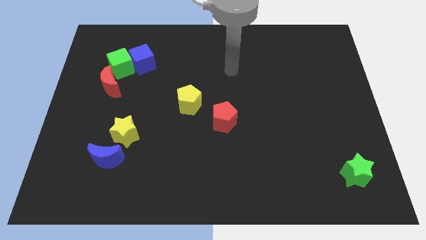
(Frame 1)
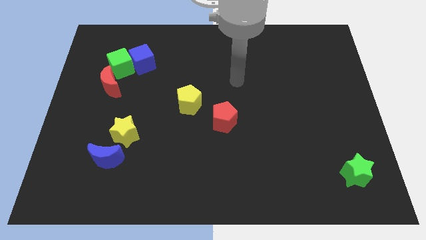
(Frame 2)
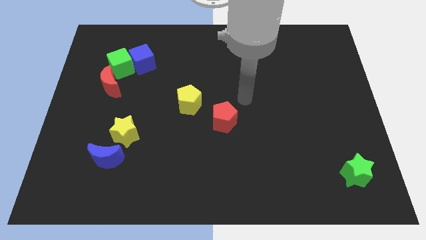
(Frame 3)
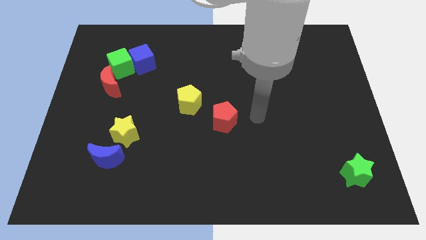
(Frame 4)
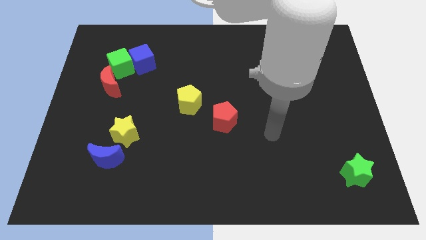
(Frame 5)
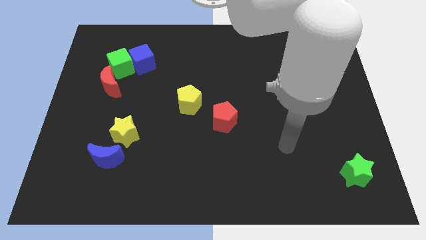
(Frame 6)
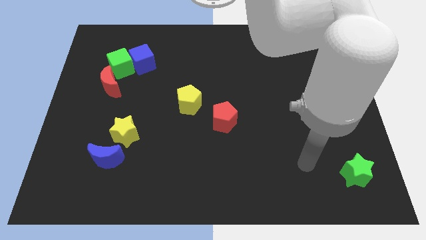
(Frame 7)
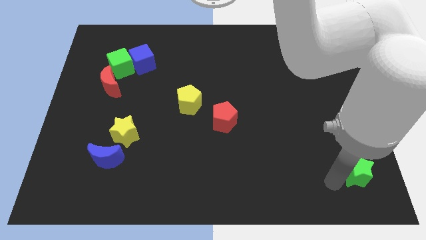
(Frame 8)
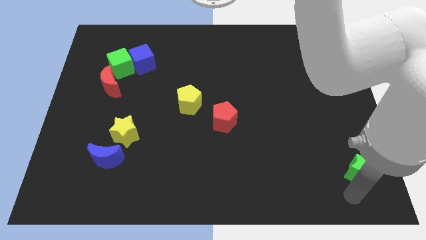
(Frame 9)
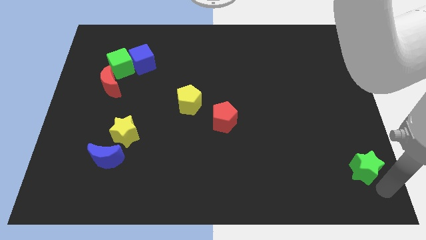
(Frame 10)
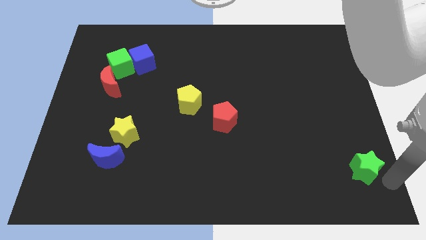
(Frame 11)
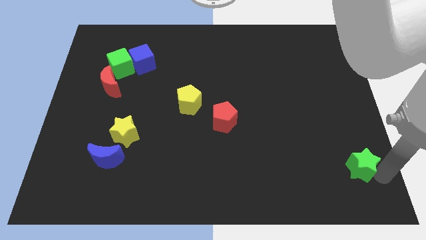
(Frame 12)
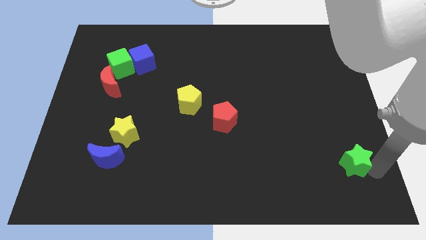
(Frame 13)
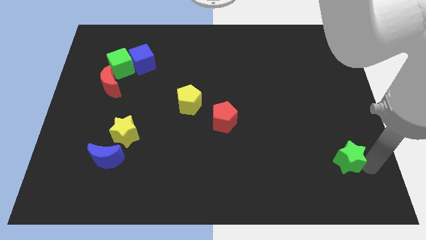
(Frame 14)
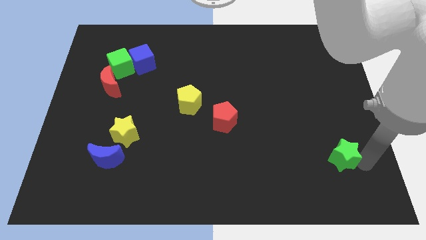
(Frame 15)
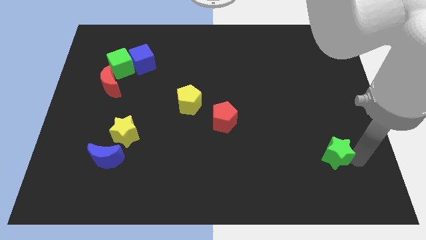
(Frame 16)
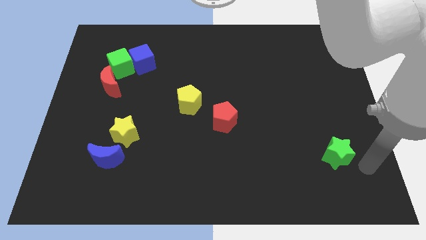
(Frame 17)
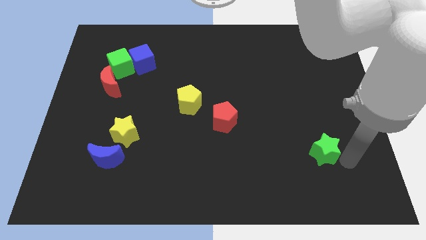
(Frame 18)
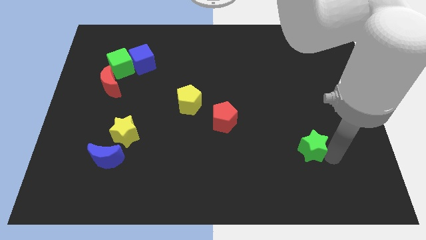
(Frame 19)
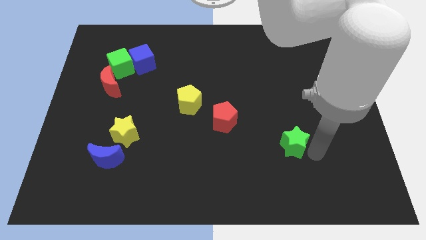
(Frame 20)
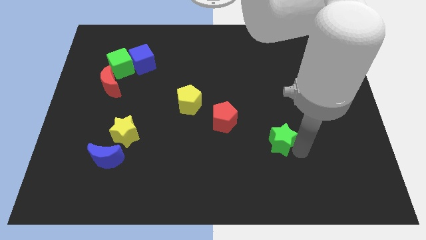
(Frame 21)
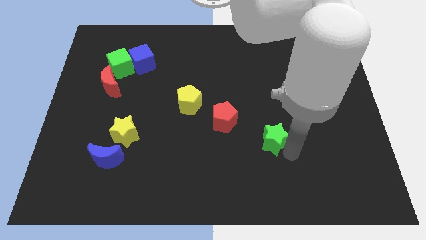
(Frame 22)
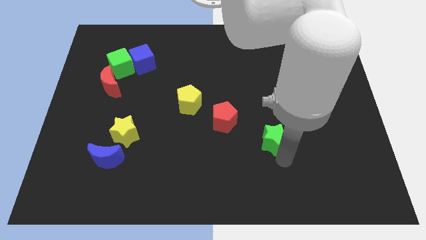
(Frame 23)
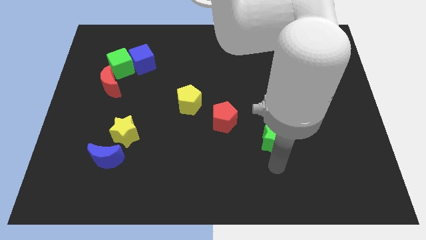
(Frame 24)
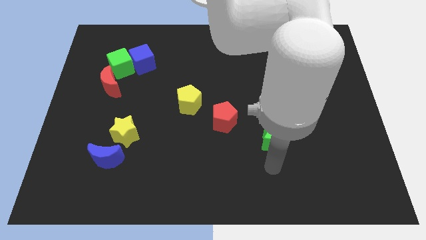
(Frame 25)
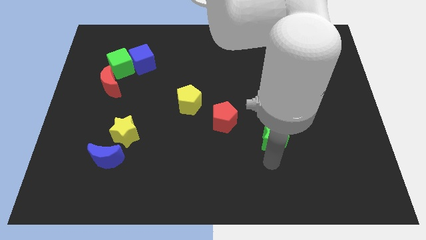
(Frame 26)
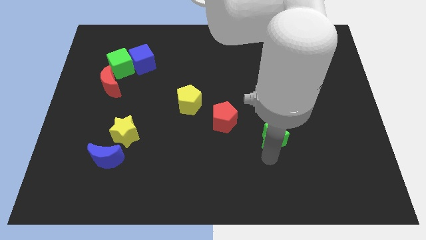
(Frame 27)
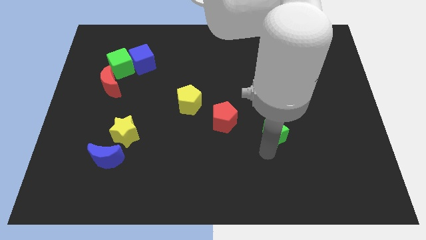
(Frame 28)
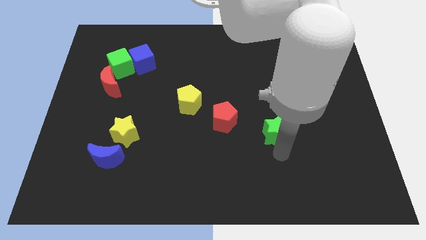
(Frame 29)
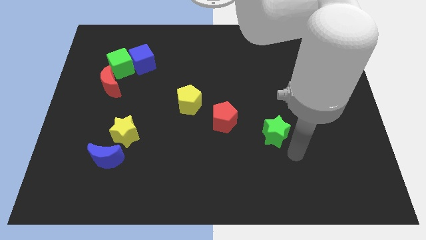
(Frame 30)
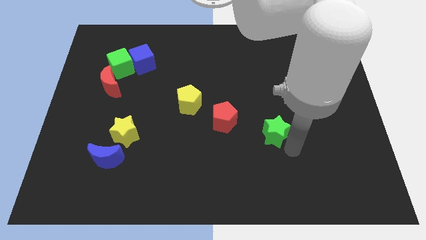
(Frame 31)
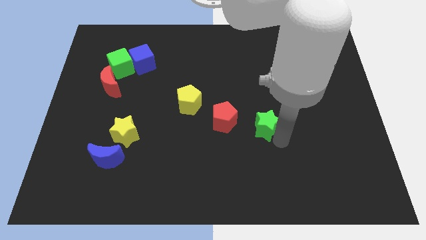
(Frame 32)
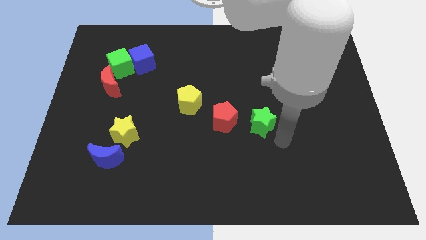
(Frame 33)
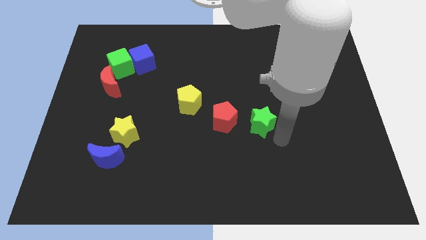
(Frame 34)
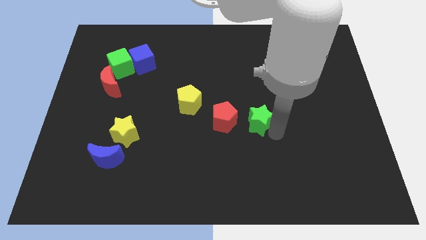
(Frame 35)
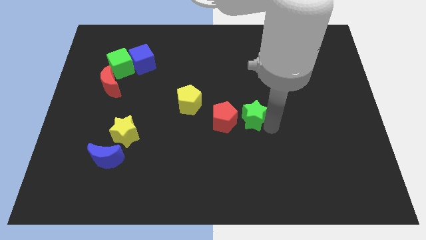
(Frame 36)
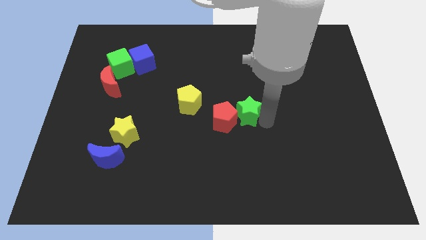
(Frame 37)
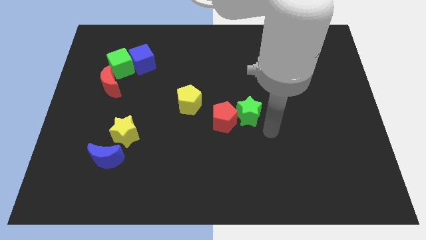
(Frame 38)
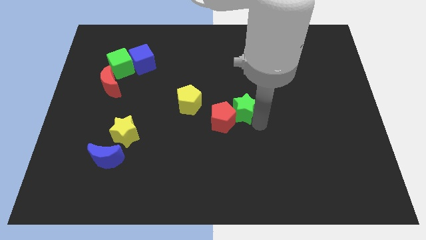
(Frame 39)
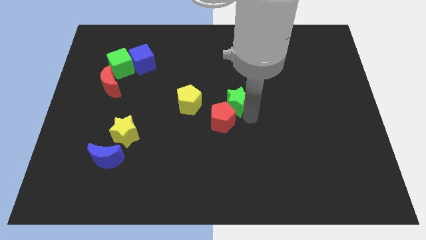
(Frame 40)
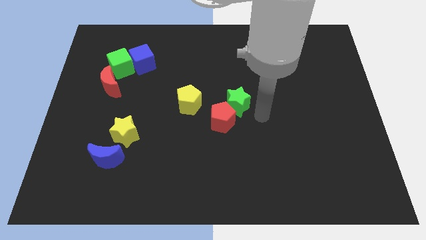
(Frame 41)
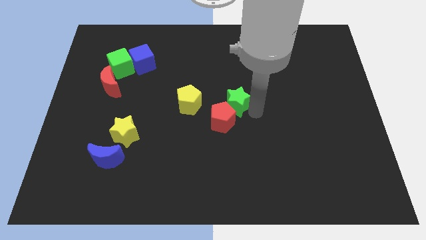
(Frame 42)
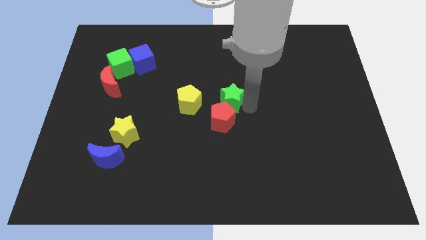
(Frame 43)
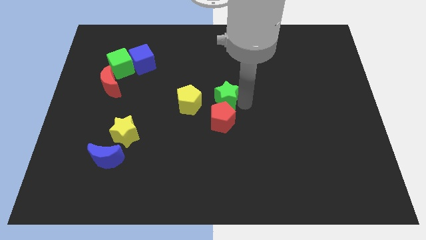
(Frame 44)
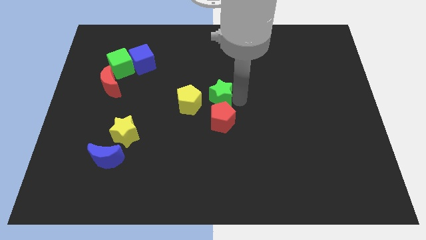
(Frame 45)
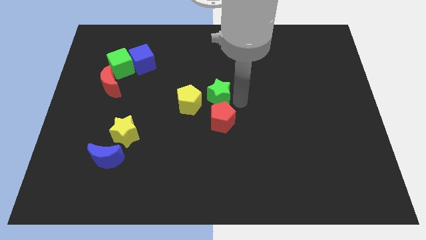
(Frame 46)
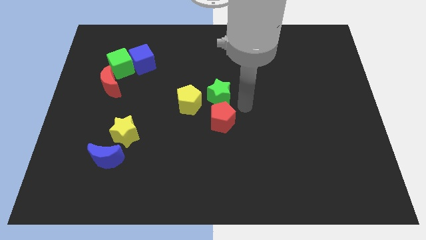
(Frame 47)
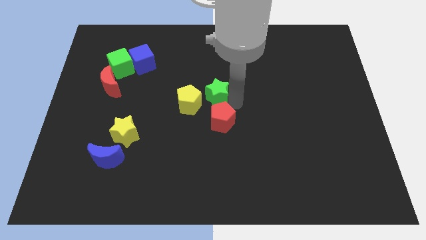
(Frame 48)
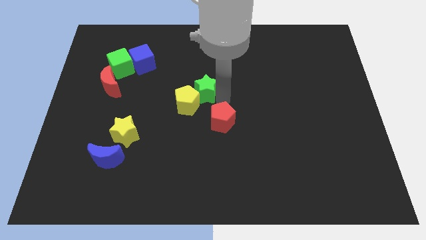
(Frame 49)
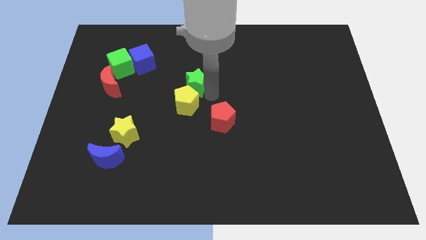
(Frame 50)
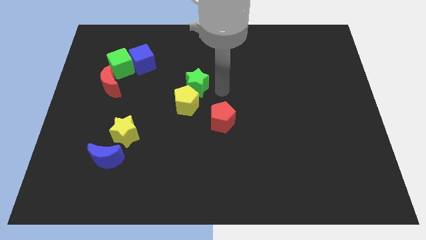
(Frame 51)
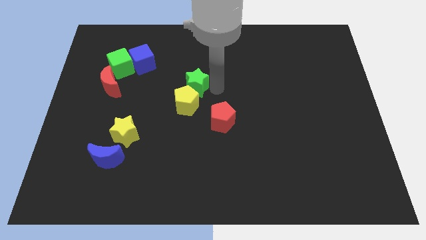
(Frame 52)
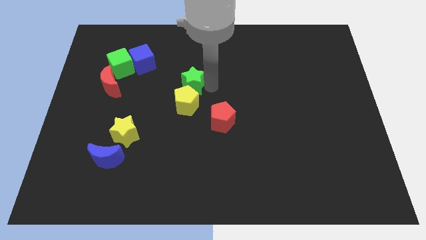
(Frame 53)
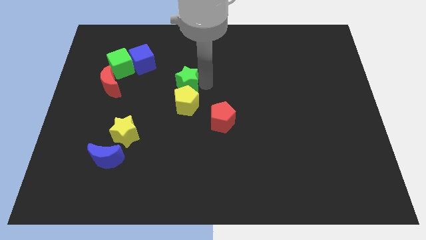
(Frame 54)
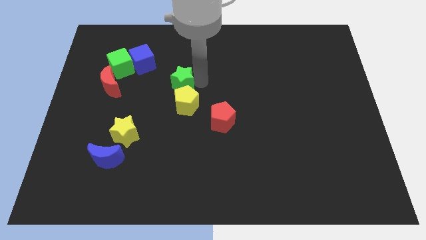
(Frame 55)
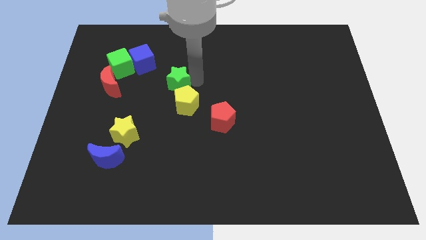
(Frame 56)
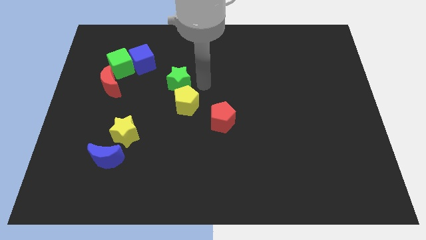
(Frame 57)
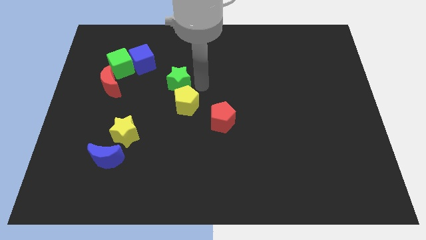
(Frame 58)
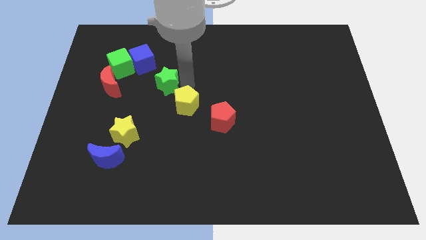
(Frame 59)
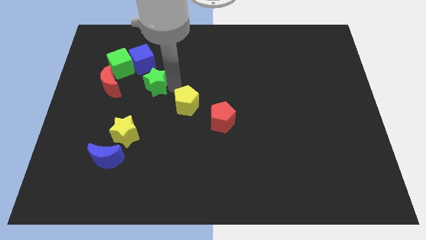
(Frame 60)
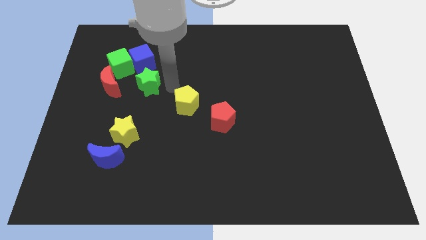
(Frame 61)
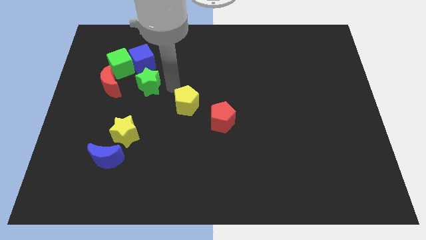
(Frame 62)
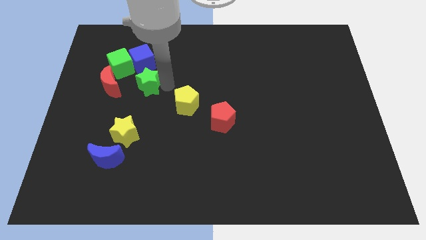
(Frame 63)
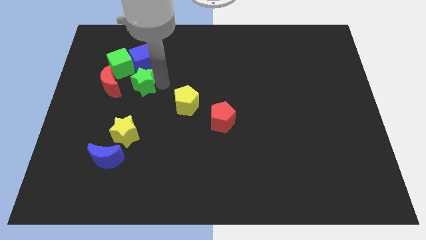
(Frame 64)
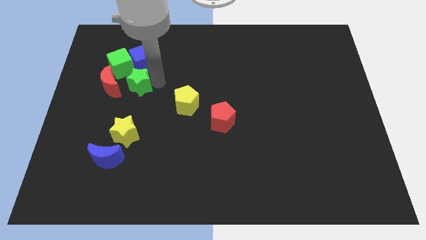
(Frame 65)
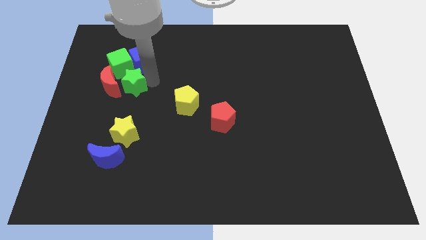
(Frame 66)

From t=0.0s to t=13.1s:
put the green star to the red moon

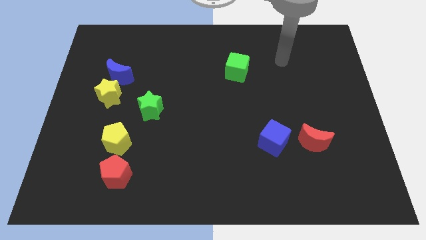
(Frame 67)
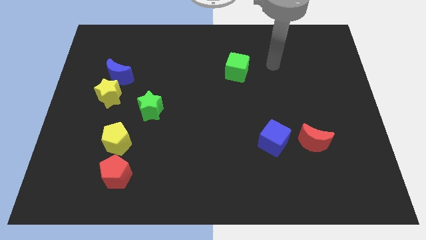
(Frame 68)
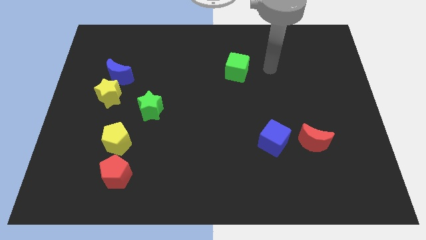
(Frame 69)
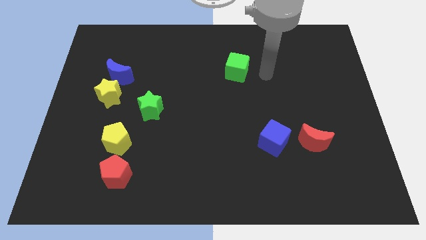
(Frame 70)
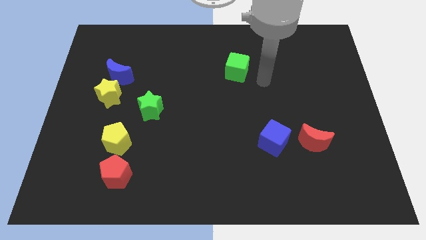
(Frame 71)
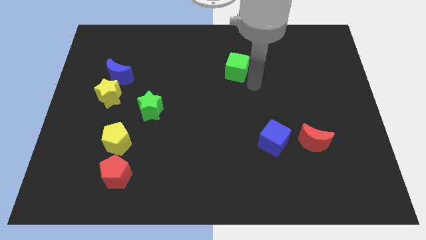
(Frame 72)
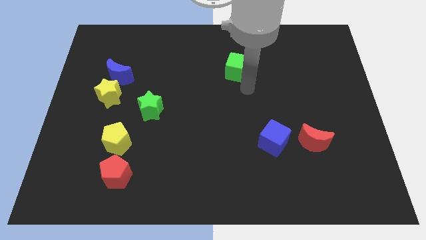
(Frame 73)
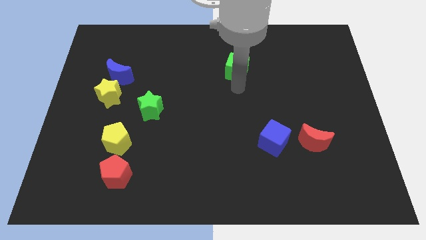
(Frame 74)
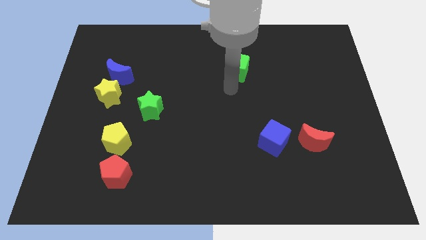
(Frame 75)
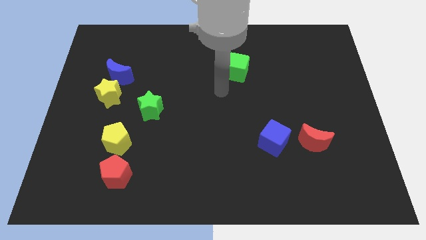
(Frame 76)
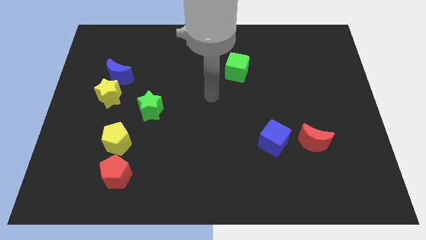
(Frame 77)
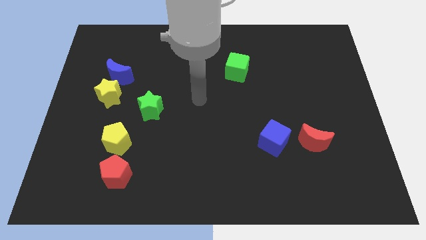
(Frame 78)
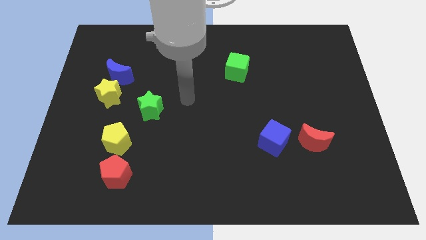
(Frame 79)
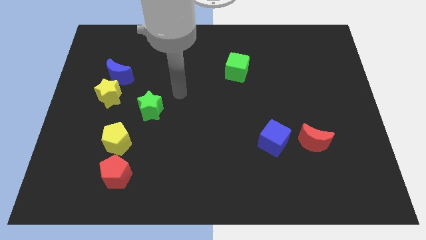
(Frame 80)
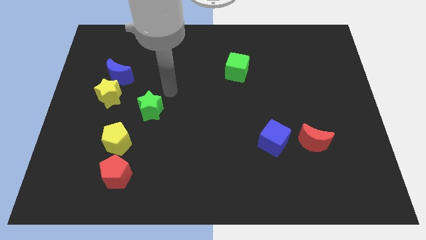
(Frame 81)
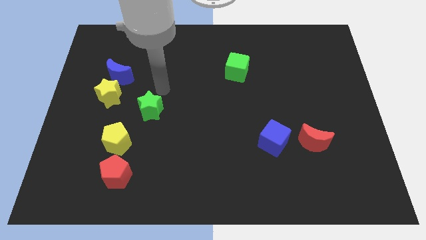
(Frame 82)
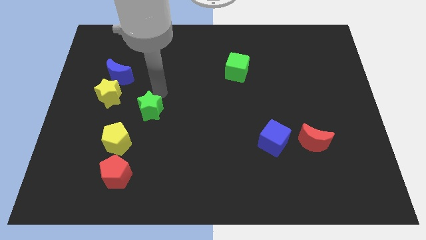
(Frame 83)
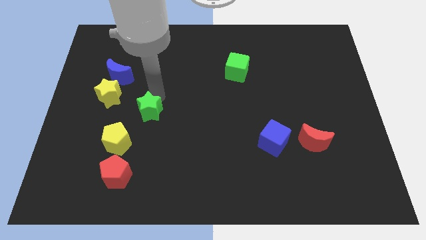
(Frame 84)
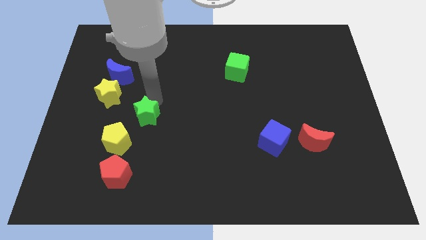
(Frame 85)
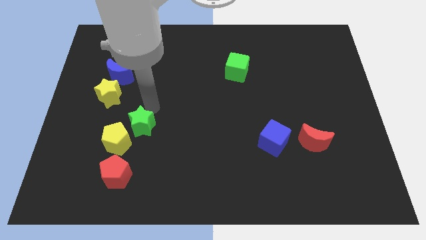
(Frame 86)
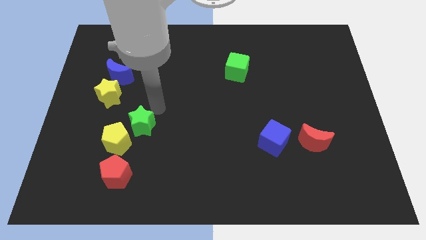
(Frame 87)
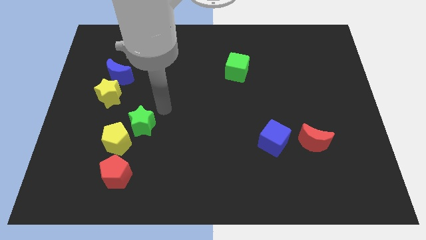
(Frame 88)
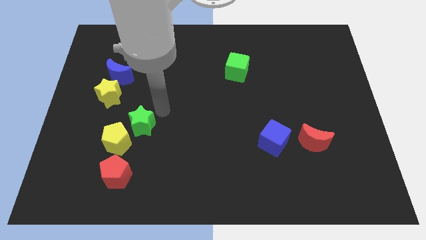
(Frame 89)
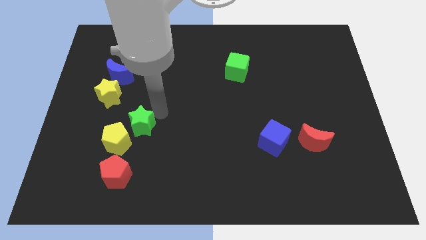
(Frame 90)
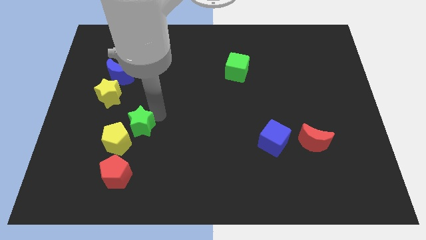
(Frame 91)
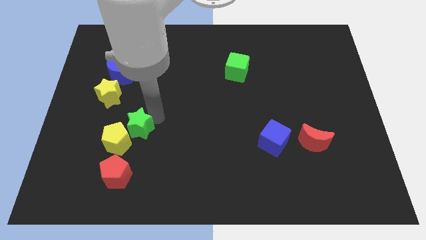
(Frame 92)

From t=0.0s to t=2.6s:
put the green star to the yellow pentagon
